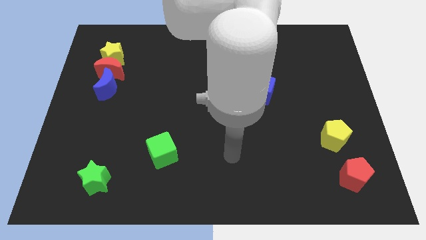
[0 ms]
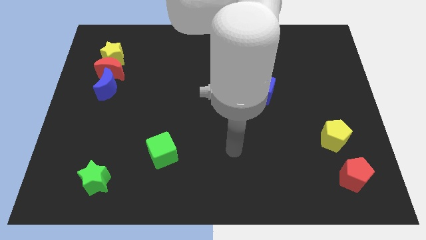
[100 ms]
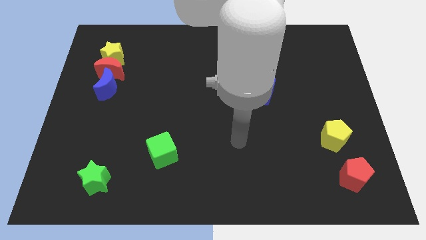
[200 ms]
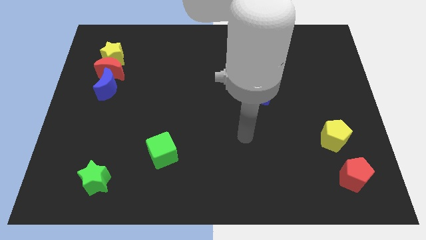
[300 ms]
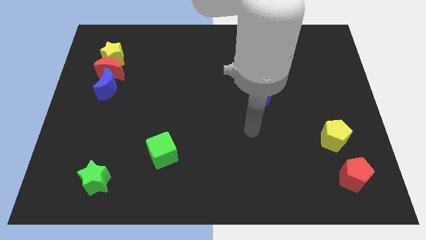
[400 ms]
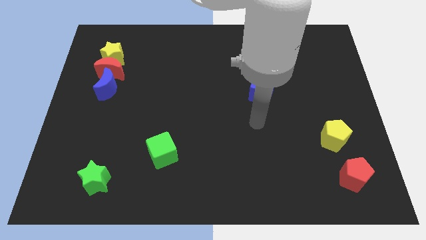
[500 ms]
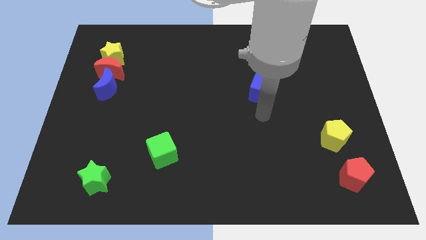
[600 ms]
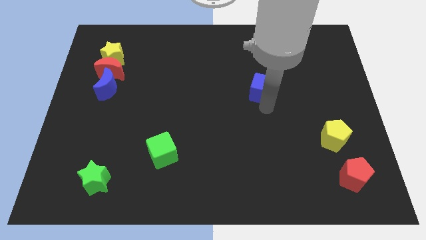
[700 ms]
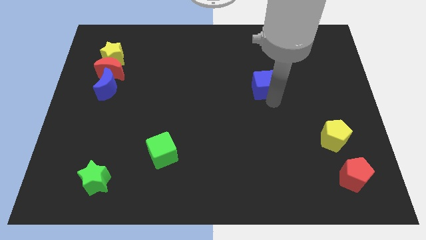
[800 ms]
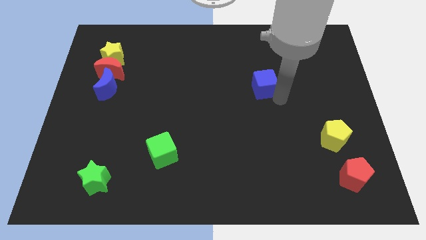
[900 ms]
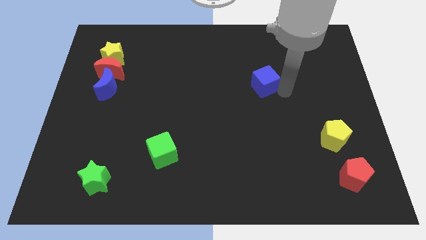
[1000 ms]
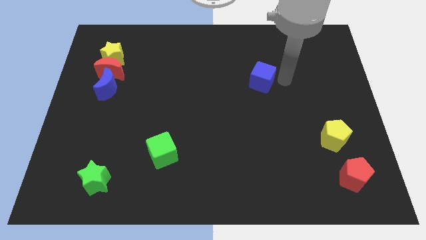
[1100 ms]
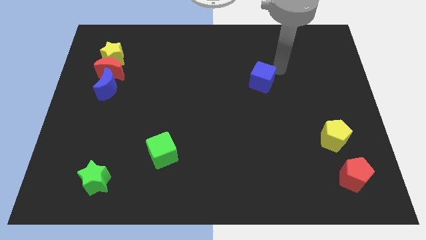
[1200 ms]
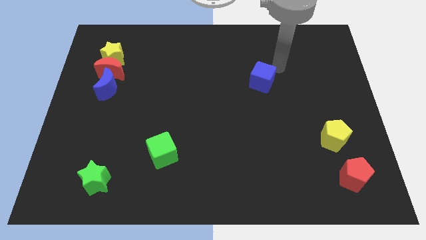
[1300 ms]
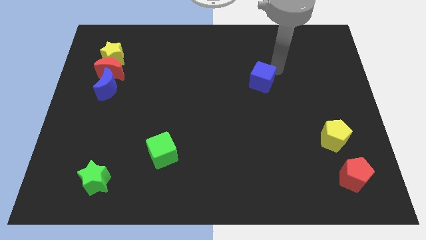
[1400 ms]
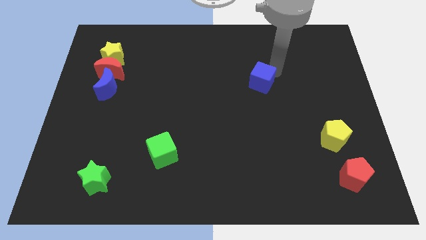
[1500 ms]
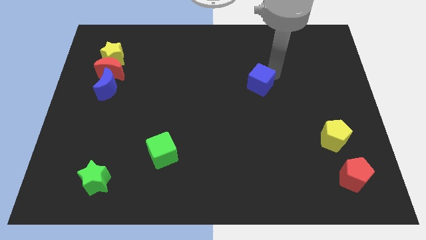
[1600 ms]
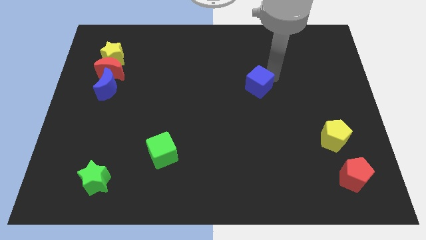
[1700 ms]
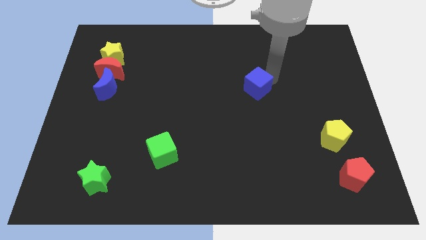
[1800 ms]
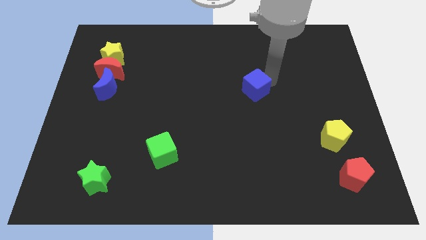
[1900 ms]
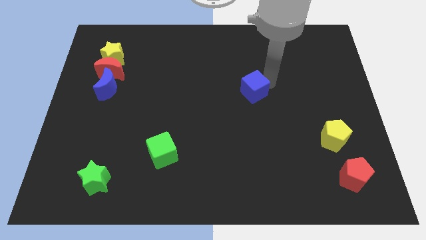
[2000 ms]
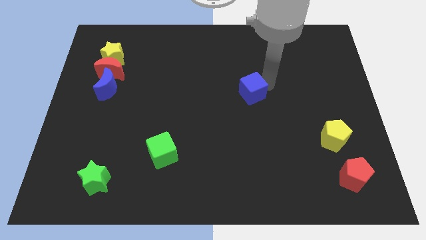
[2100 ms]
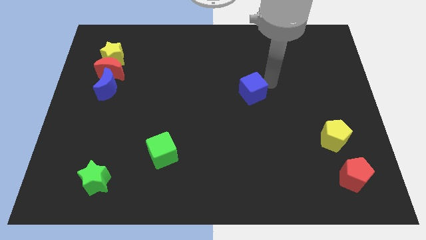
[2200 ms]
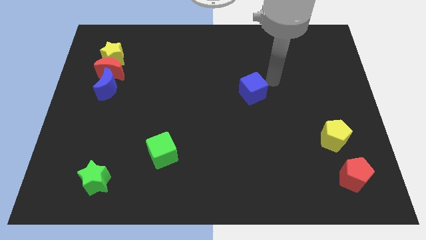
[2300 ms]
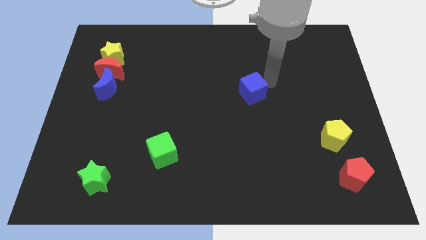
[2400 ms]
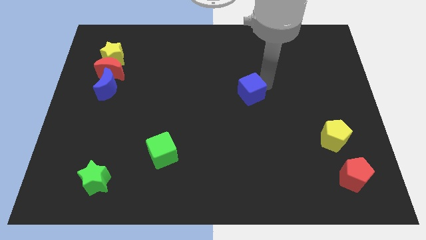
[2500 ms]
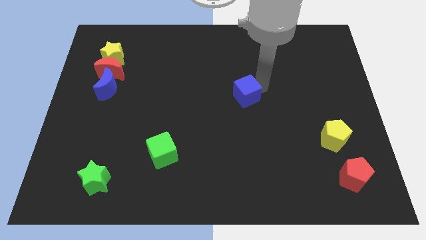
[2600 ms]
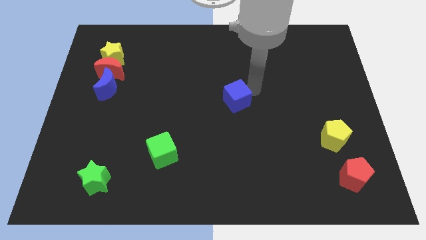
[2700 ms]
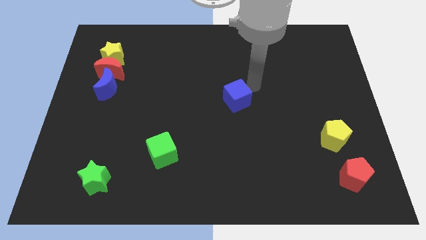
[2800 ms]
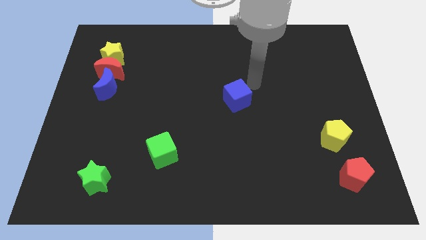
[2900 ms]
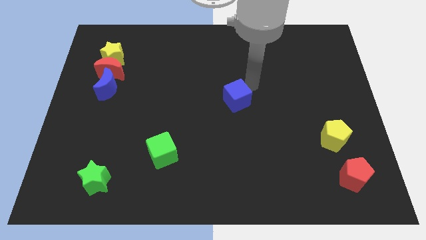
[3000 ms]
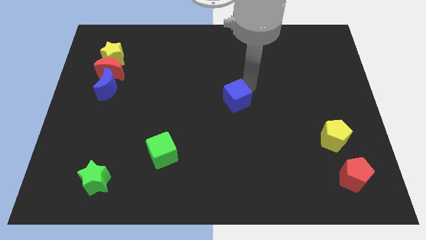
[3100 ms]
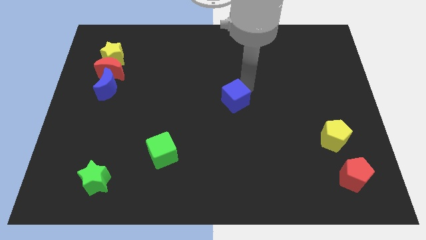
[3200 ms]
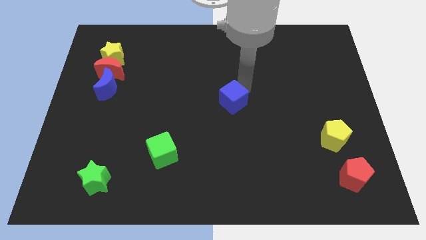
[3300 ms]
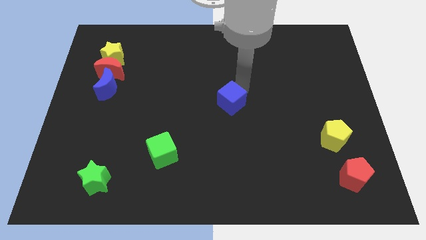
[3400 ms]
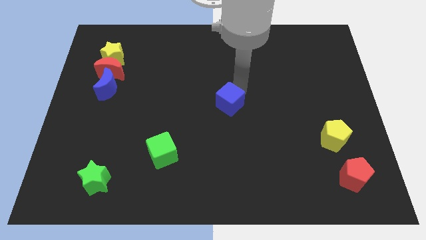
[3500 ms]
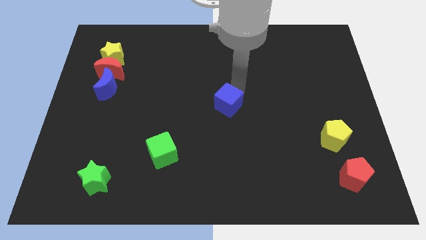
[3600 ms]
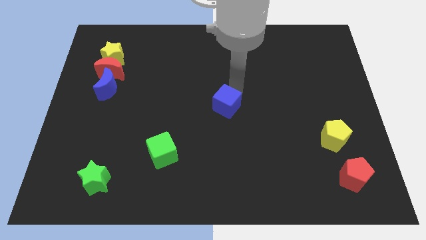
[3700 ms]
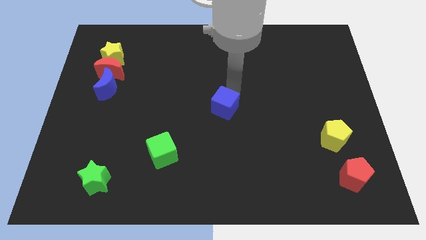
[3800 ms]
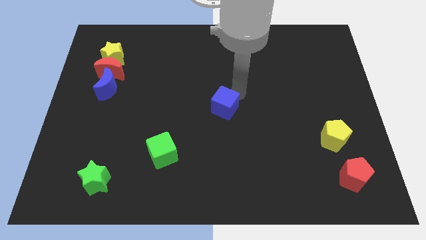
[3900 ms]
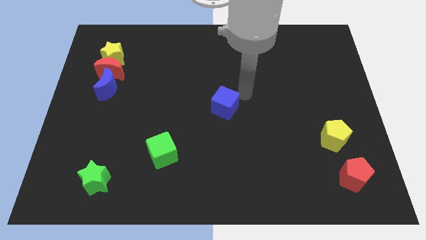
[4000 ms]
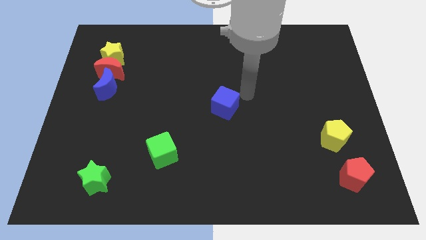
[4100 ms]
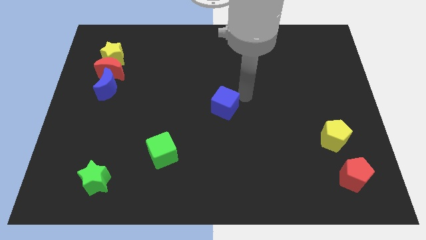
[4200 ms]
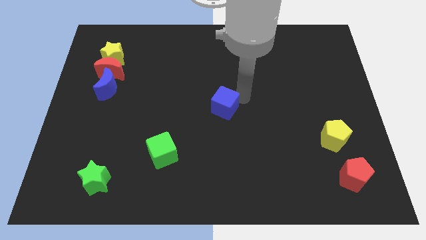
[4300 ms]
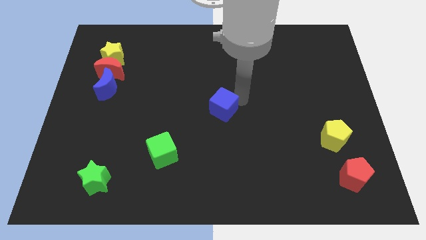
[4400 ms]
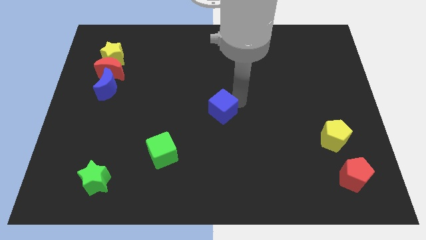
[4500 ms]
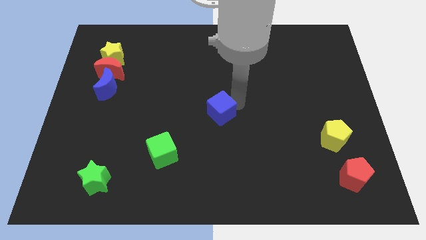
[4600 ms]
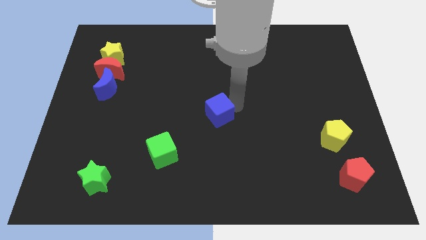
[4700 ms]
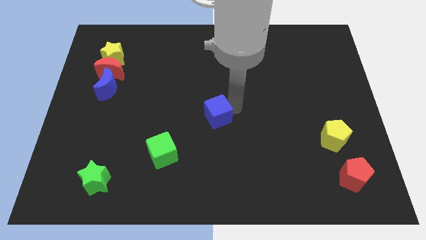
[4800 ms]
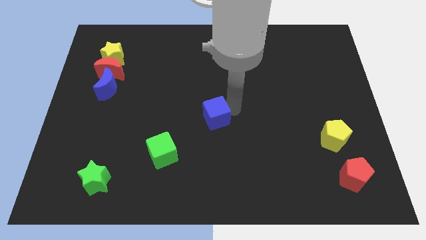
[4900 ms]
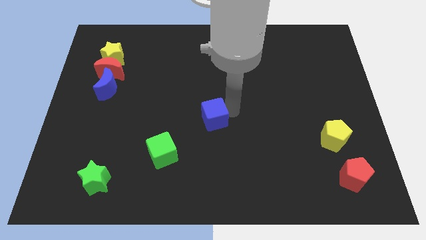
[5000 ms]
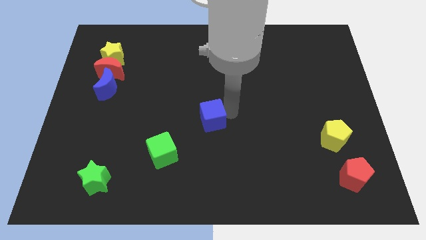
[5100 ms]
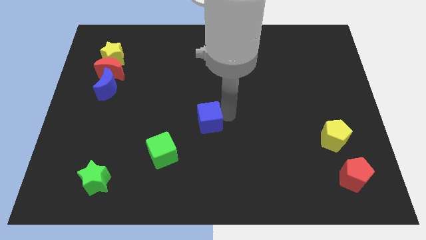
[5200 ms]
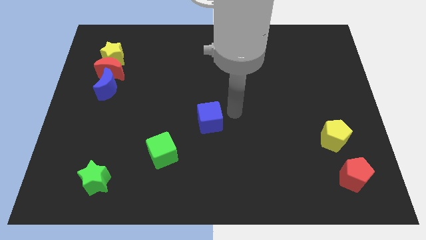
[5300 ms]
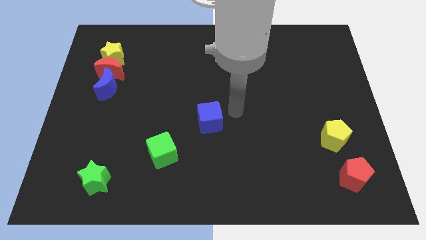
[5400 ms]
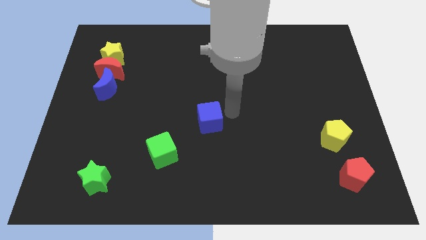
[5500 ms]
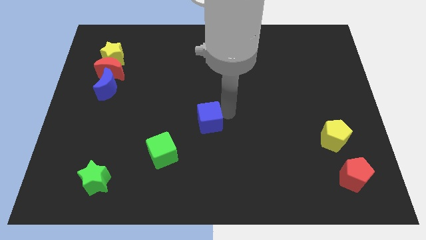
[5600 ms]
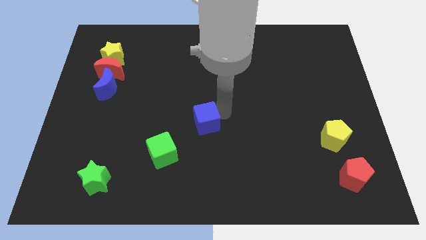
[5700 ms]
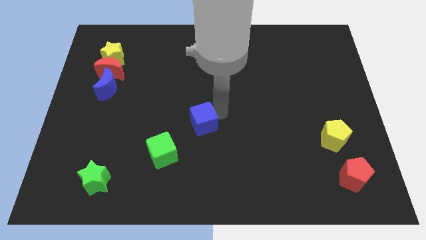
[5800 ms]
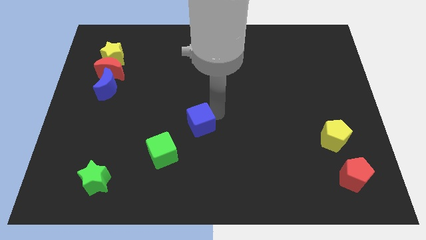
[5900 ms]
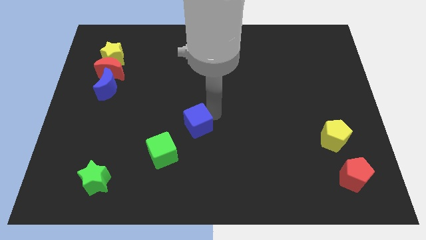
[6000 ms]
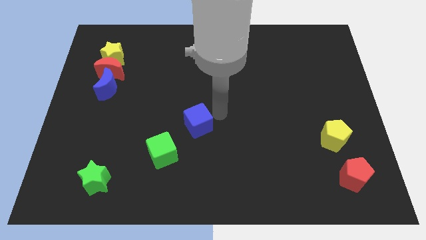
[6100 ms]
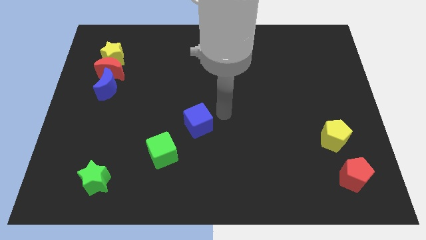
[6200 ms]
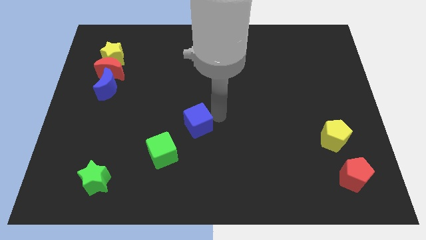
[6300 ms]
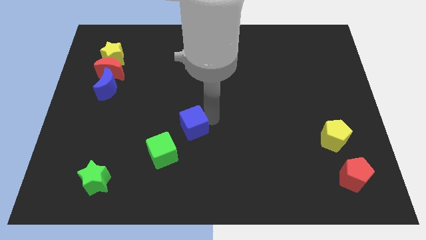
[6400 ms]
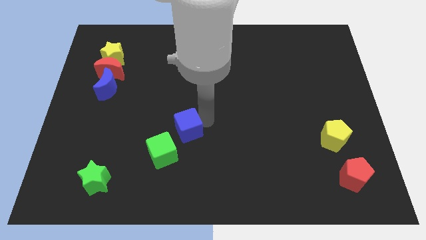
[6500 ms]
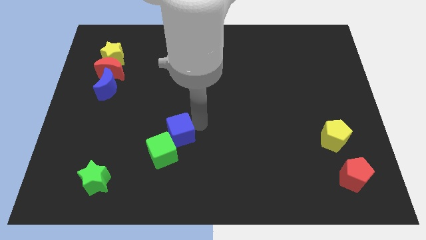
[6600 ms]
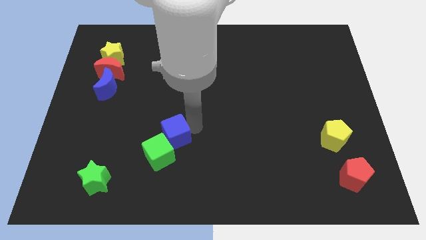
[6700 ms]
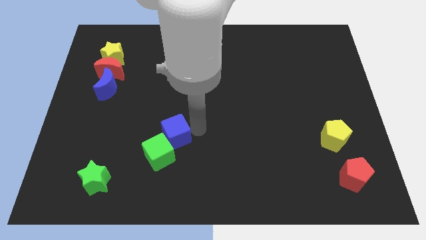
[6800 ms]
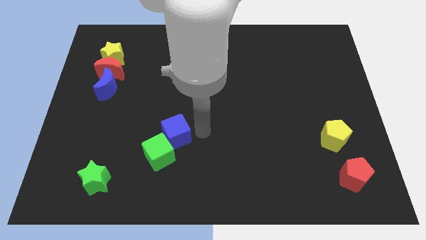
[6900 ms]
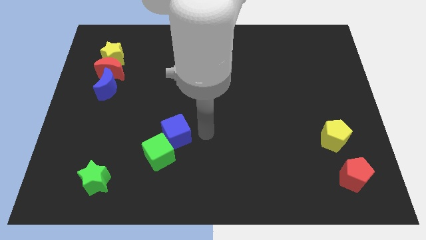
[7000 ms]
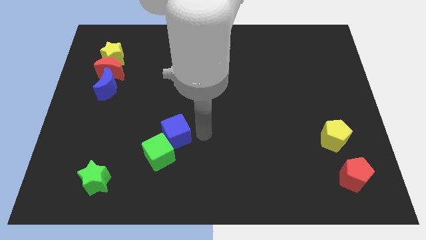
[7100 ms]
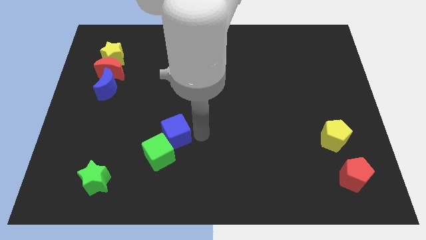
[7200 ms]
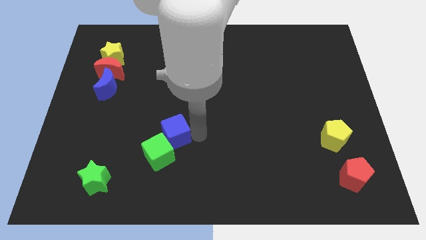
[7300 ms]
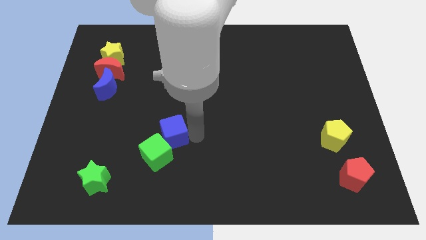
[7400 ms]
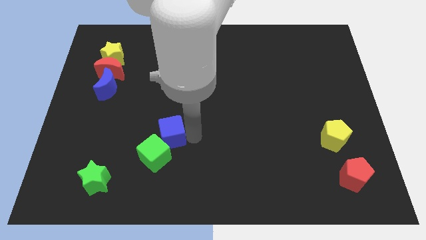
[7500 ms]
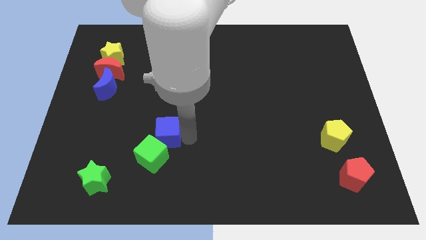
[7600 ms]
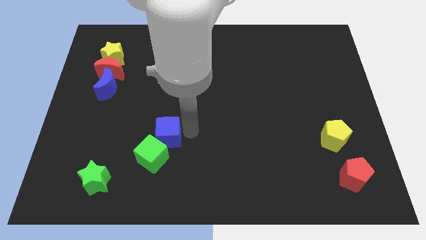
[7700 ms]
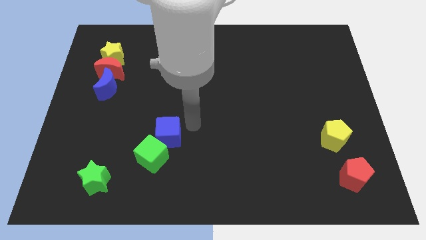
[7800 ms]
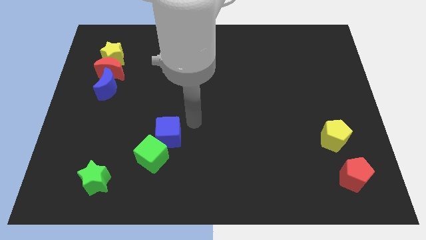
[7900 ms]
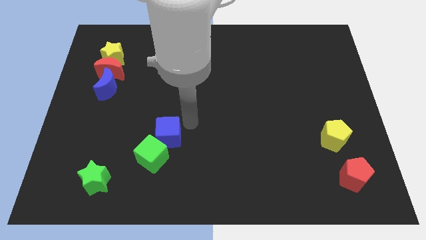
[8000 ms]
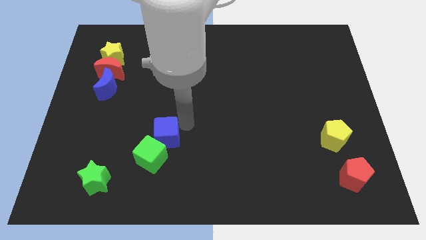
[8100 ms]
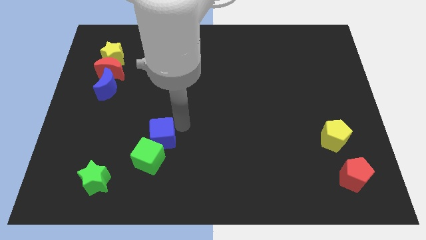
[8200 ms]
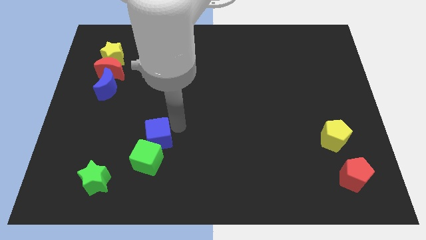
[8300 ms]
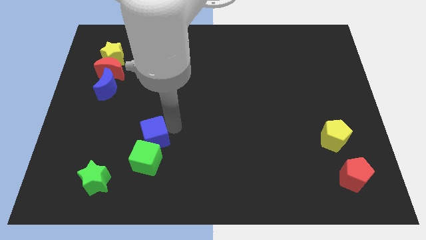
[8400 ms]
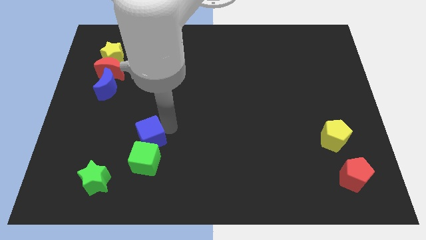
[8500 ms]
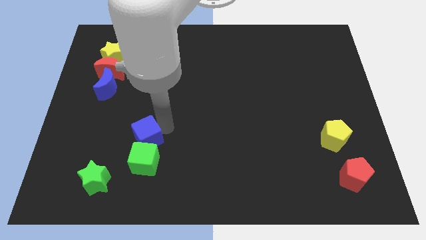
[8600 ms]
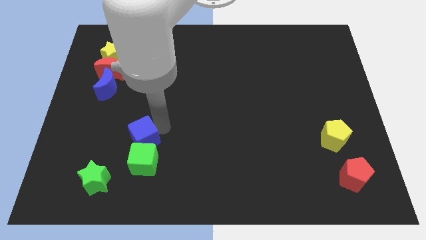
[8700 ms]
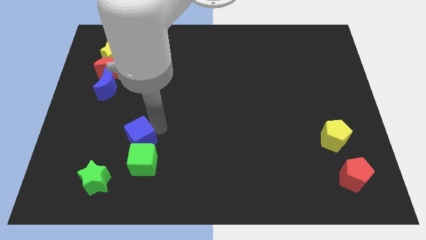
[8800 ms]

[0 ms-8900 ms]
put the blue cube diagonally up and to the right of the green star
